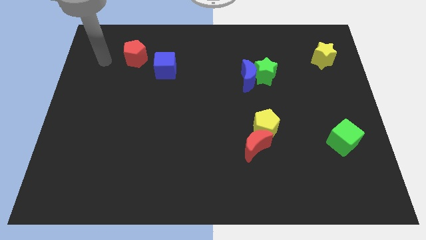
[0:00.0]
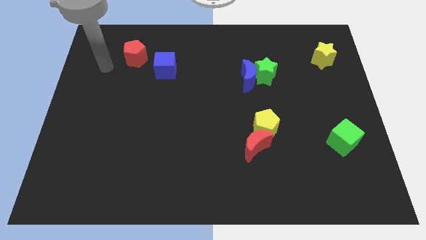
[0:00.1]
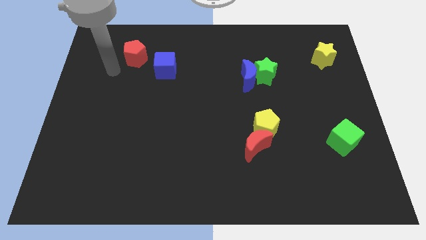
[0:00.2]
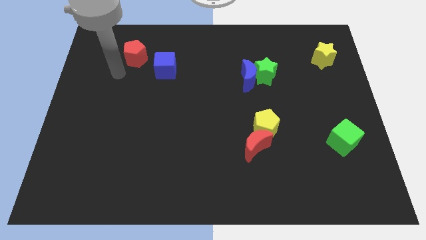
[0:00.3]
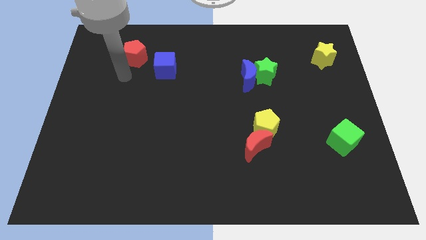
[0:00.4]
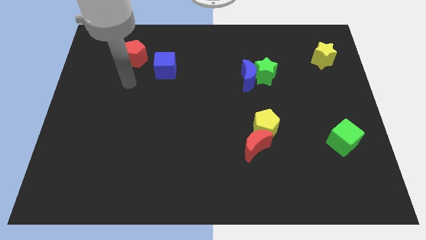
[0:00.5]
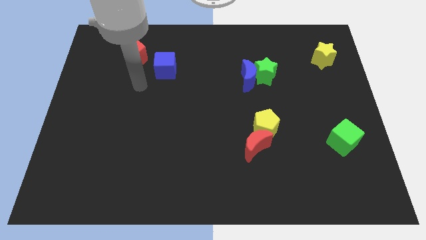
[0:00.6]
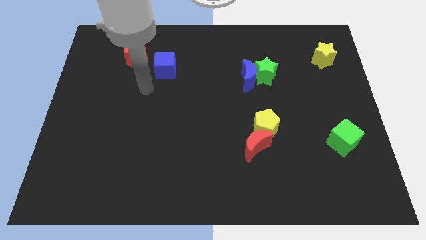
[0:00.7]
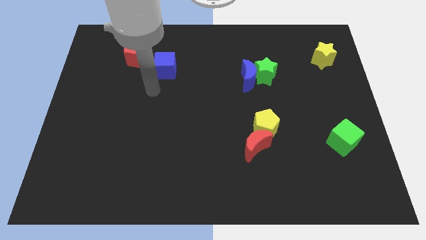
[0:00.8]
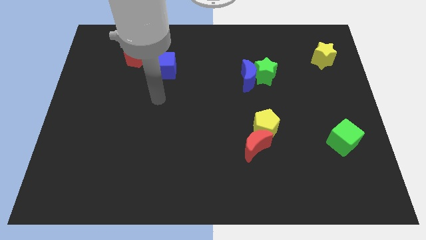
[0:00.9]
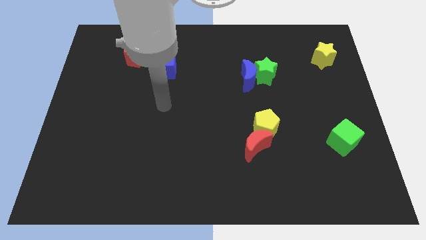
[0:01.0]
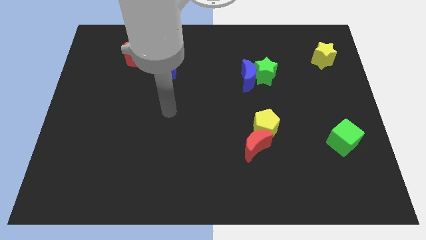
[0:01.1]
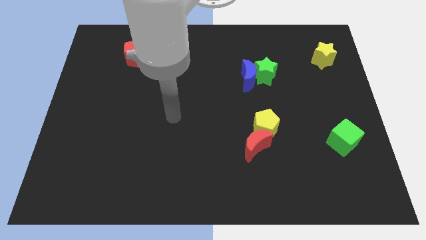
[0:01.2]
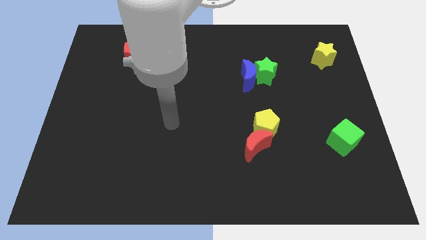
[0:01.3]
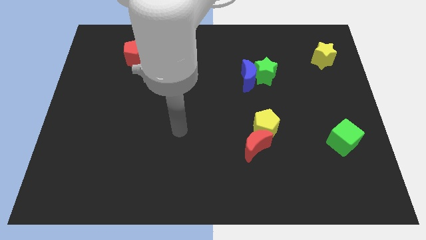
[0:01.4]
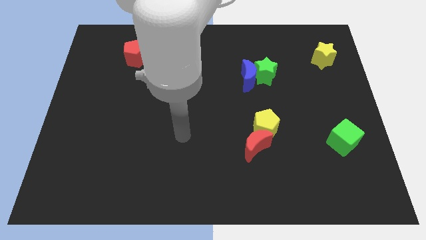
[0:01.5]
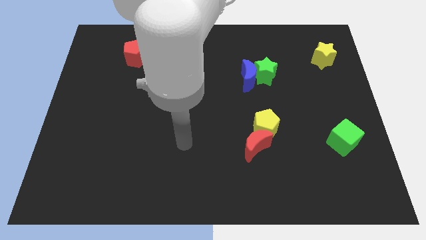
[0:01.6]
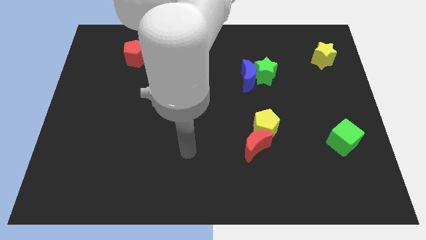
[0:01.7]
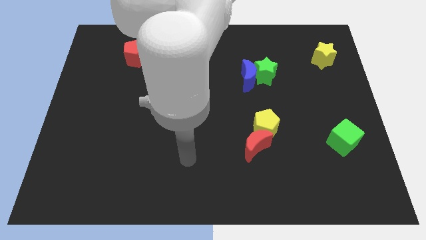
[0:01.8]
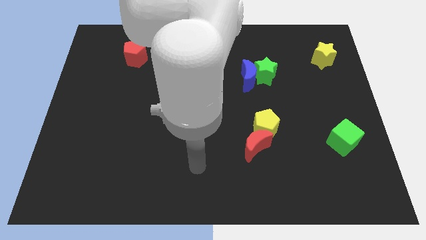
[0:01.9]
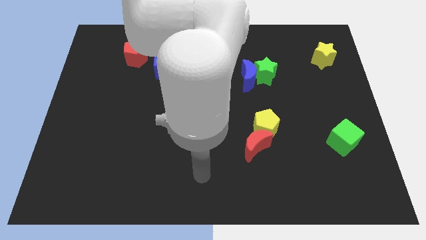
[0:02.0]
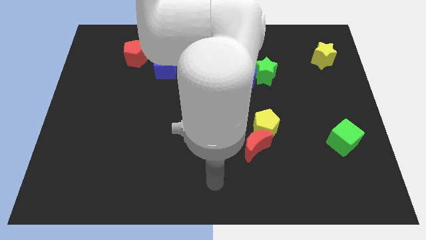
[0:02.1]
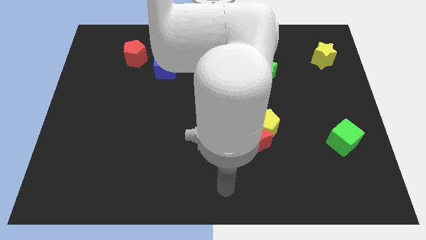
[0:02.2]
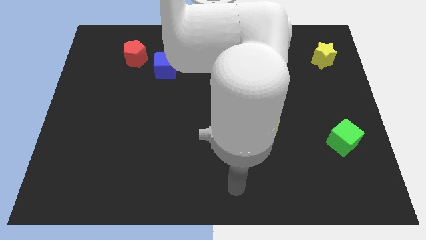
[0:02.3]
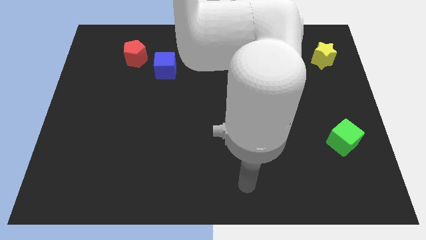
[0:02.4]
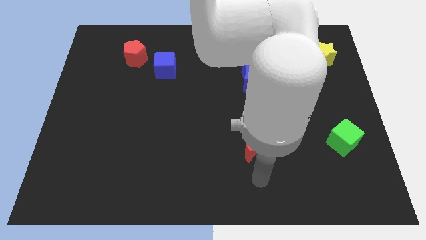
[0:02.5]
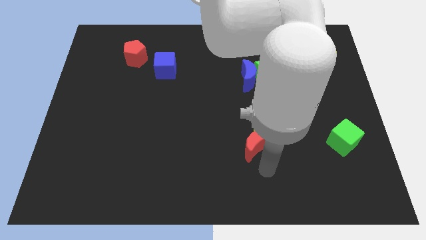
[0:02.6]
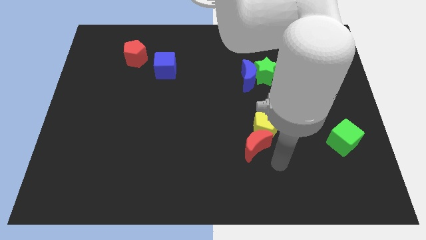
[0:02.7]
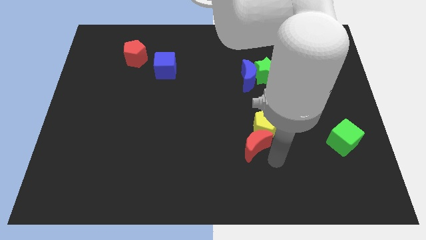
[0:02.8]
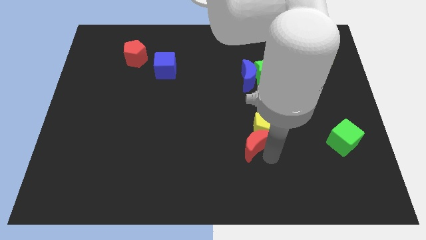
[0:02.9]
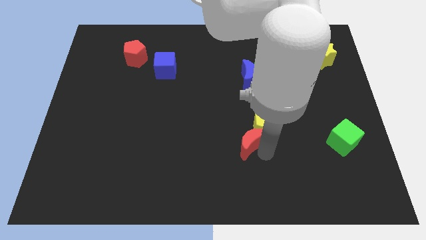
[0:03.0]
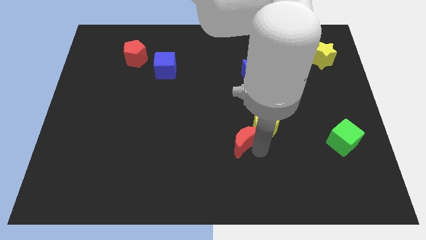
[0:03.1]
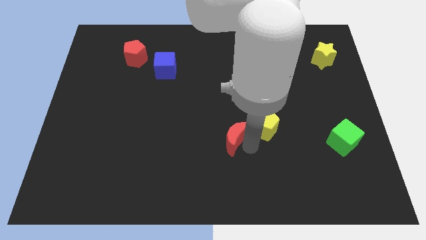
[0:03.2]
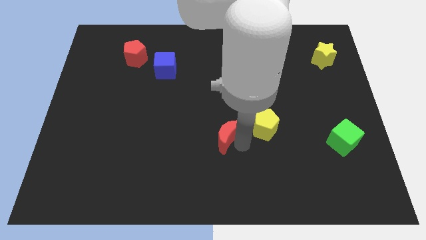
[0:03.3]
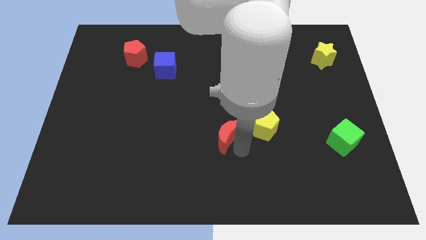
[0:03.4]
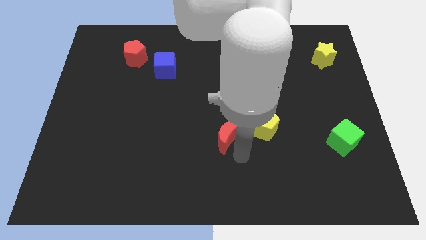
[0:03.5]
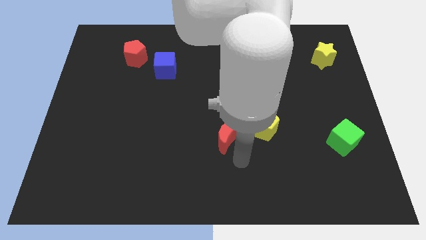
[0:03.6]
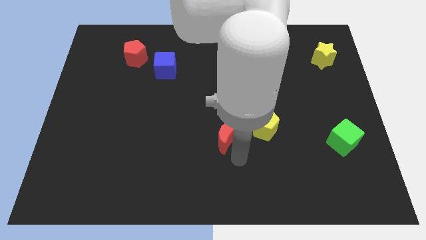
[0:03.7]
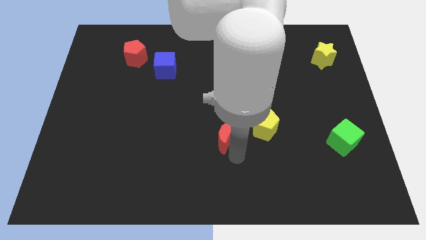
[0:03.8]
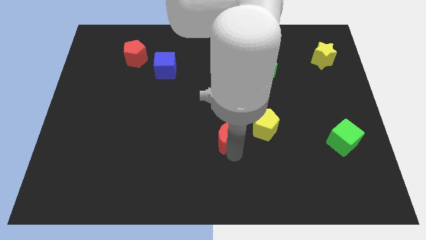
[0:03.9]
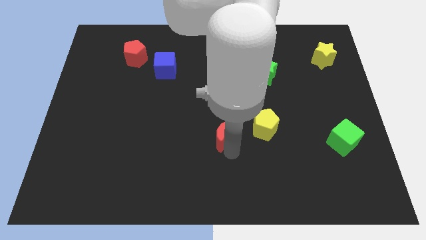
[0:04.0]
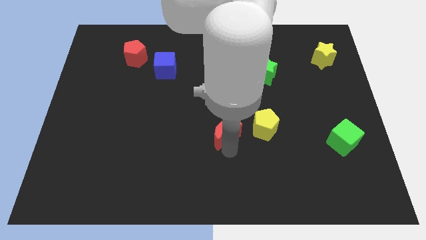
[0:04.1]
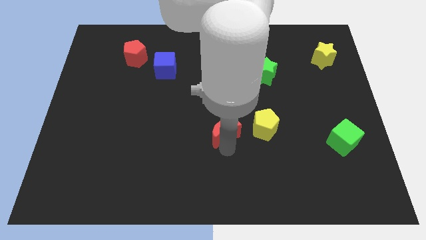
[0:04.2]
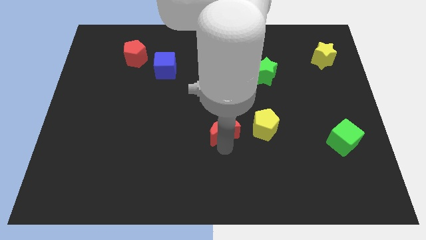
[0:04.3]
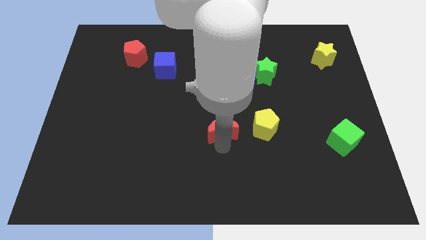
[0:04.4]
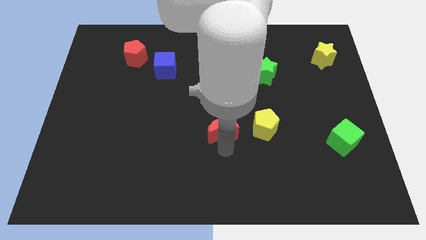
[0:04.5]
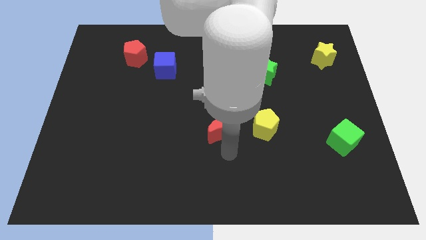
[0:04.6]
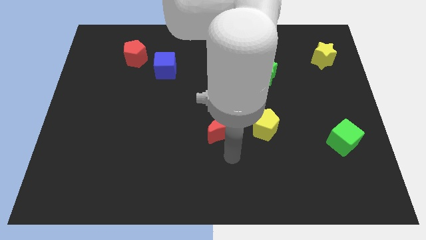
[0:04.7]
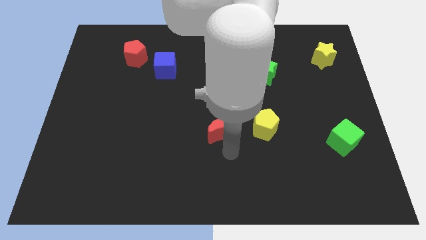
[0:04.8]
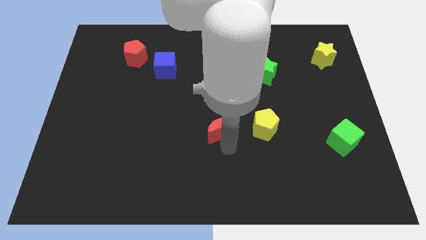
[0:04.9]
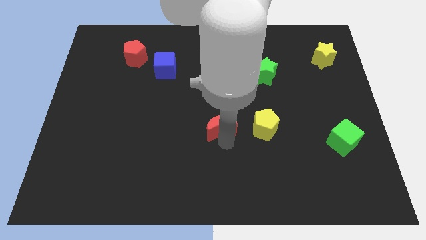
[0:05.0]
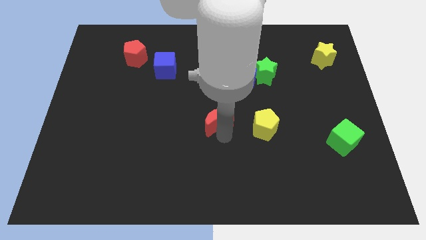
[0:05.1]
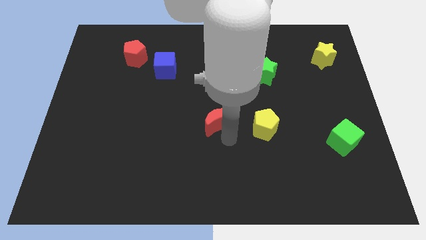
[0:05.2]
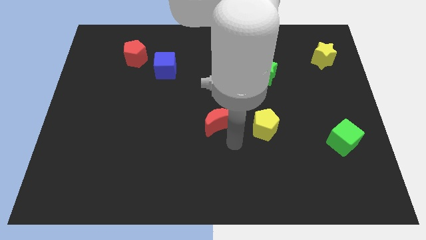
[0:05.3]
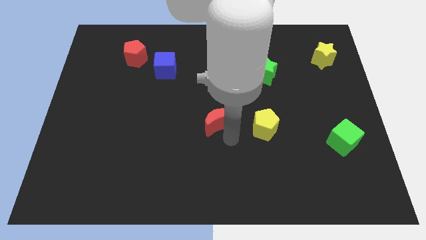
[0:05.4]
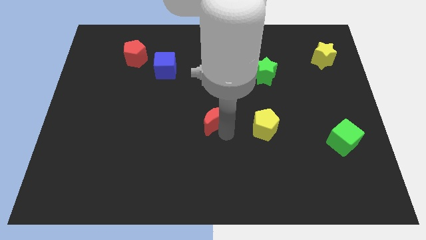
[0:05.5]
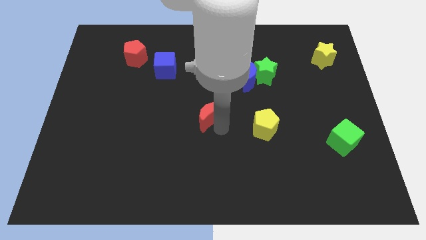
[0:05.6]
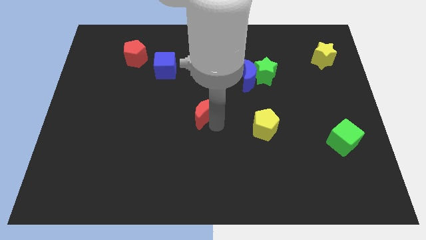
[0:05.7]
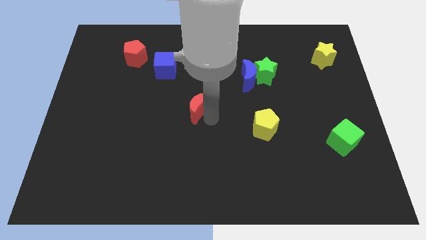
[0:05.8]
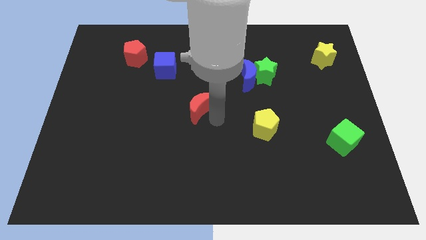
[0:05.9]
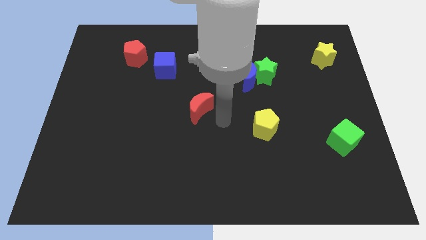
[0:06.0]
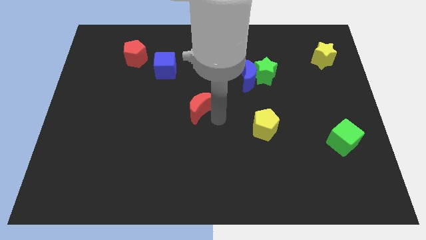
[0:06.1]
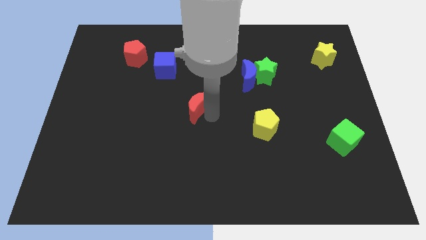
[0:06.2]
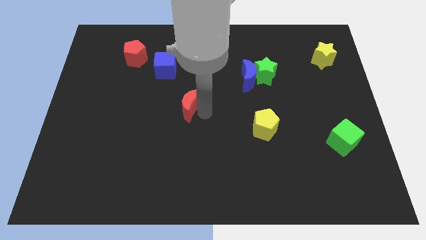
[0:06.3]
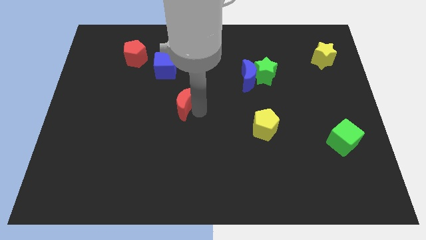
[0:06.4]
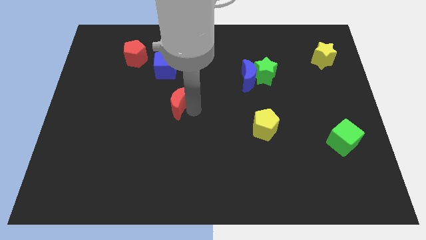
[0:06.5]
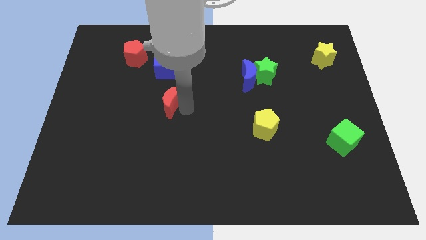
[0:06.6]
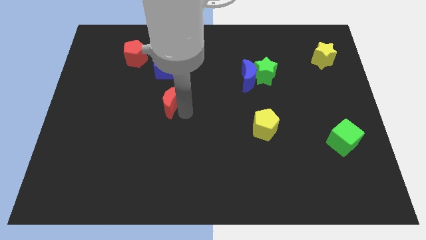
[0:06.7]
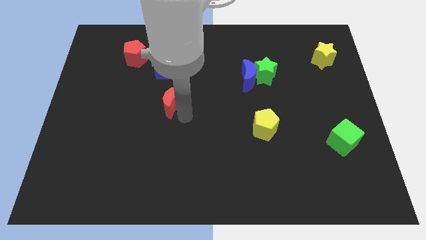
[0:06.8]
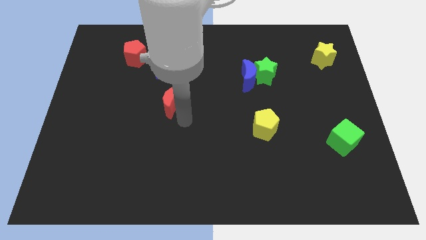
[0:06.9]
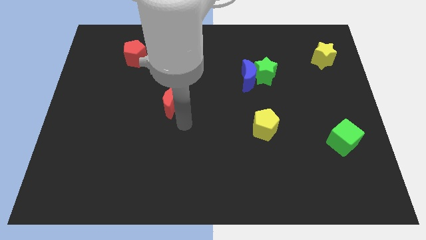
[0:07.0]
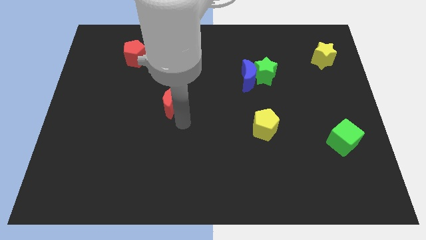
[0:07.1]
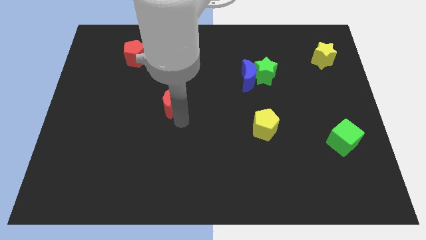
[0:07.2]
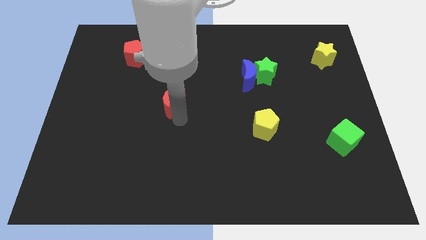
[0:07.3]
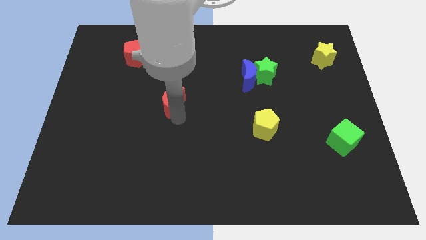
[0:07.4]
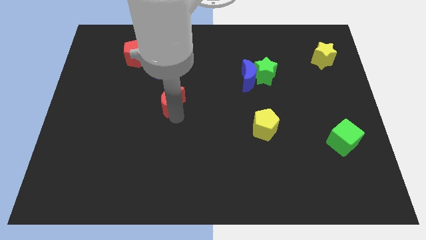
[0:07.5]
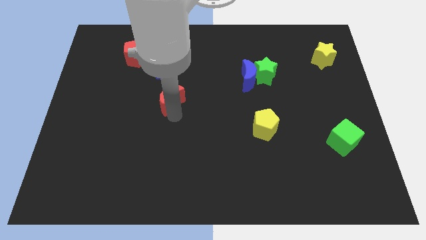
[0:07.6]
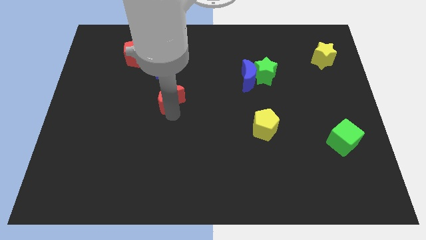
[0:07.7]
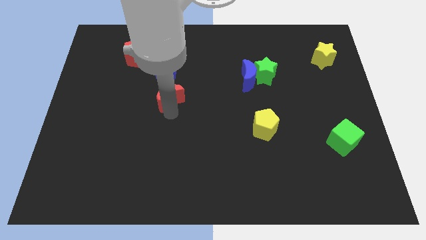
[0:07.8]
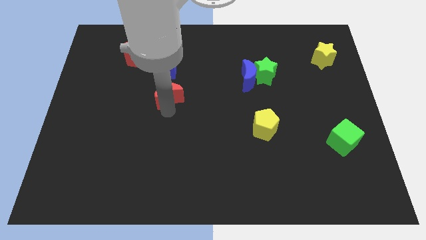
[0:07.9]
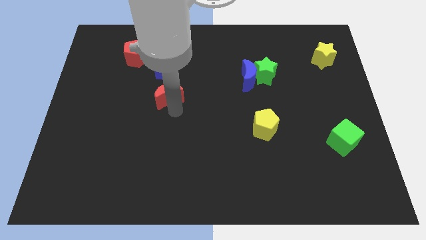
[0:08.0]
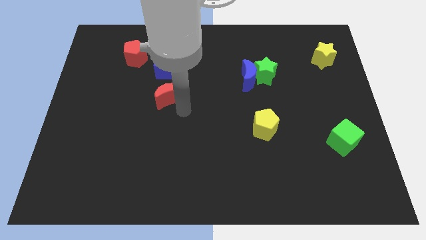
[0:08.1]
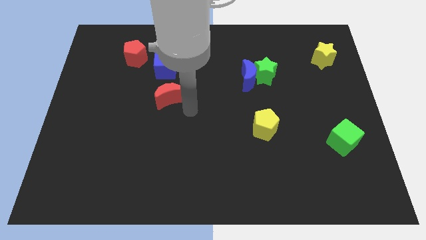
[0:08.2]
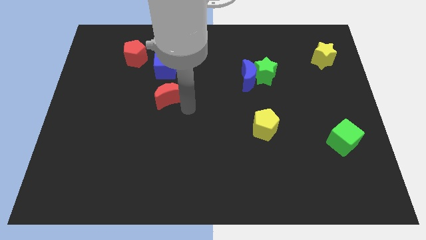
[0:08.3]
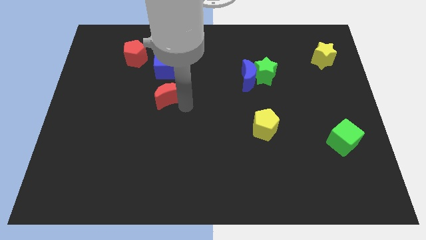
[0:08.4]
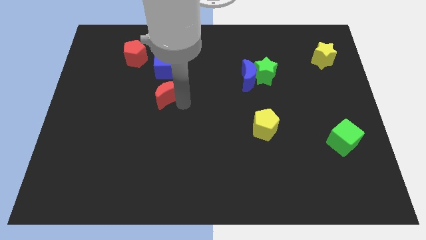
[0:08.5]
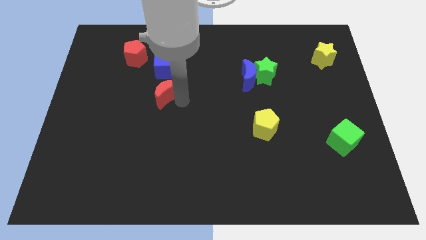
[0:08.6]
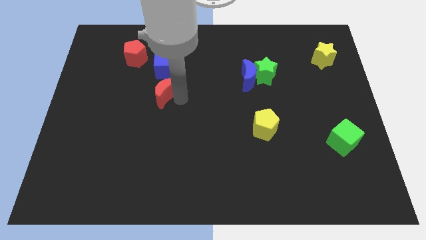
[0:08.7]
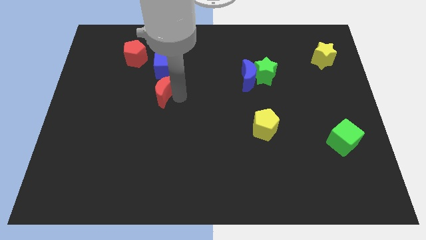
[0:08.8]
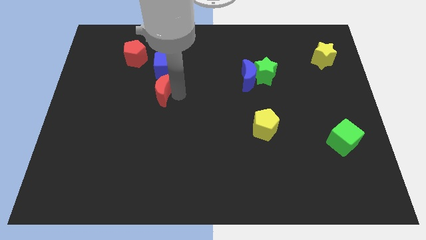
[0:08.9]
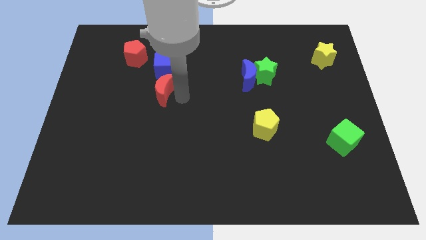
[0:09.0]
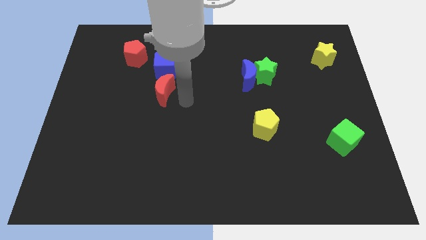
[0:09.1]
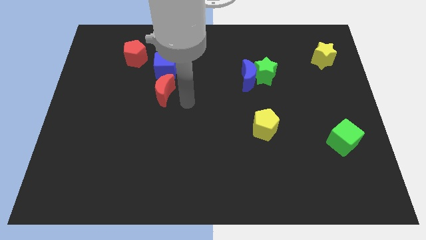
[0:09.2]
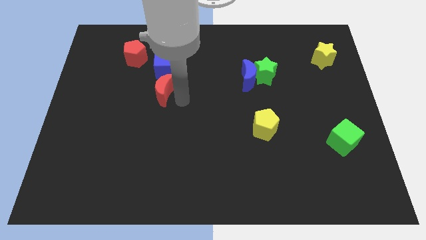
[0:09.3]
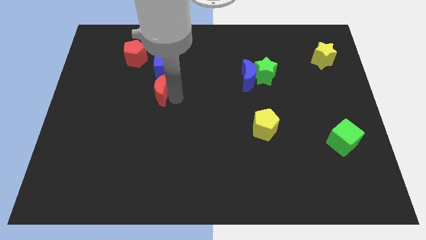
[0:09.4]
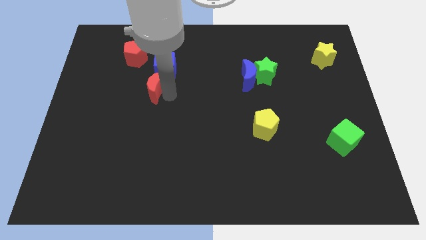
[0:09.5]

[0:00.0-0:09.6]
slide the red moon to the bottom left side of the blue cube
